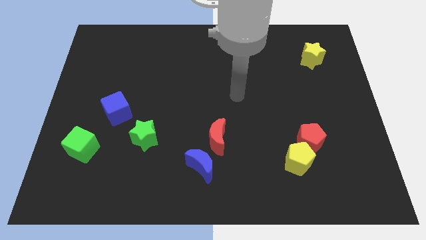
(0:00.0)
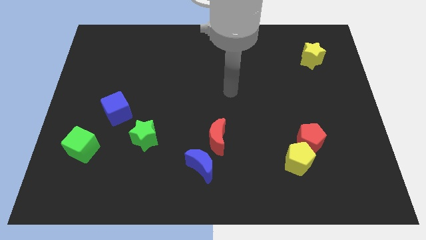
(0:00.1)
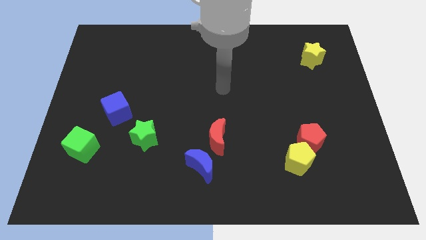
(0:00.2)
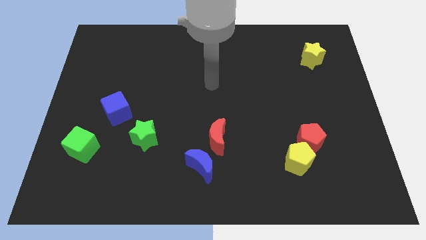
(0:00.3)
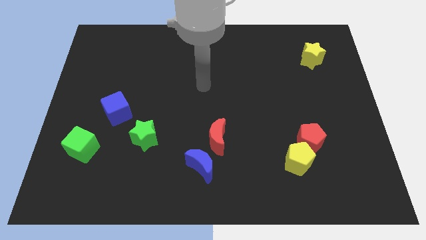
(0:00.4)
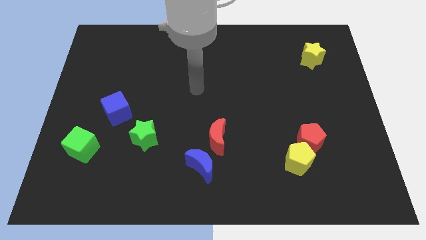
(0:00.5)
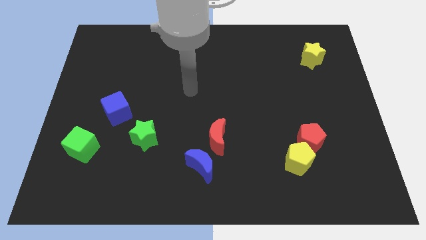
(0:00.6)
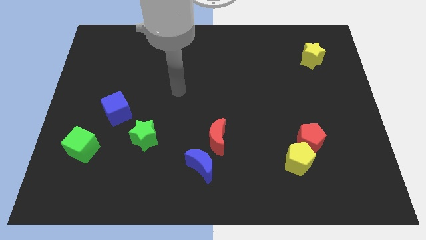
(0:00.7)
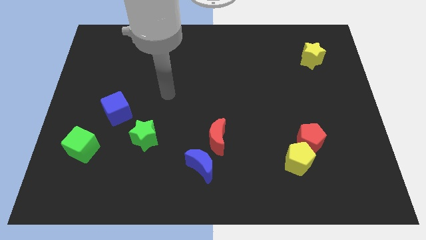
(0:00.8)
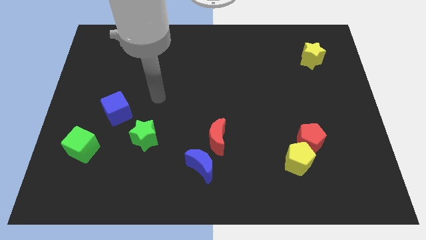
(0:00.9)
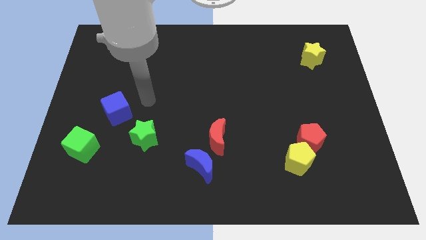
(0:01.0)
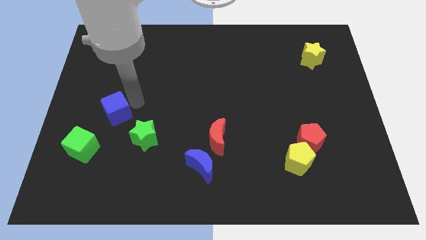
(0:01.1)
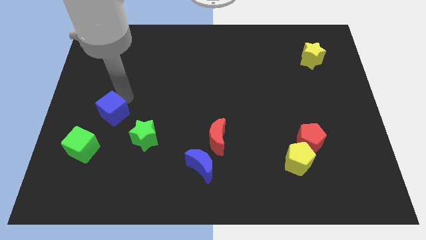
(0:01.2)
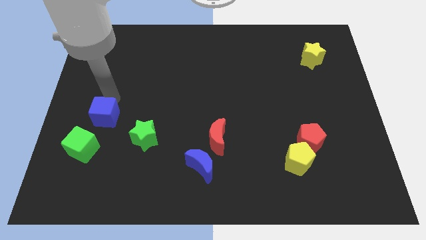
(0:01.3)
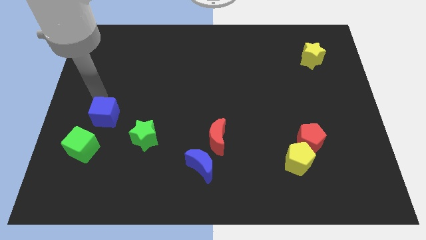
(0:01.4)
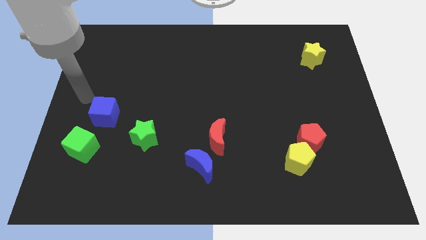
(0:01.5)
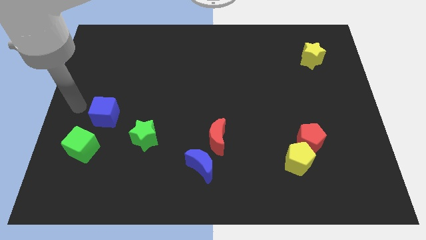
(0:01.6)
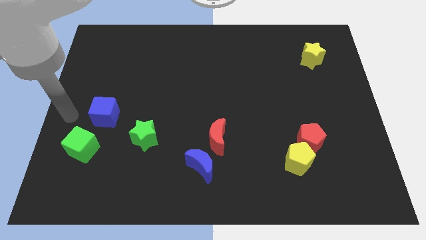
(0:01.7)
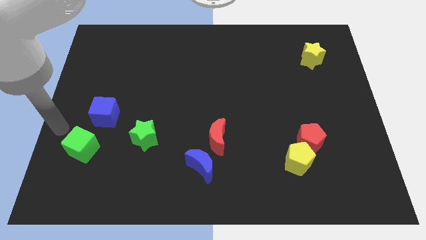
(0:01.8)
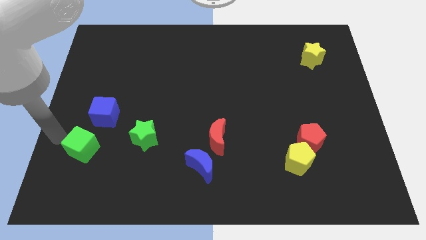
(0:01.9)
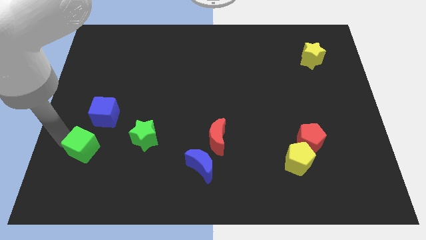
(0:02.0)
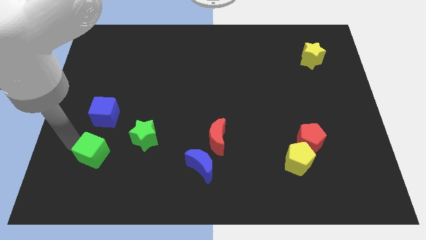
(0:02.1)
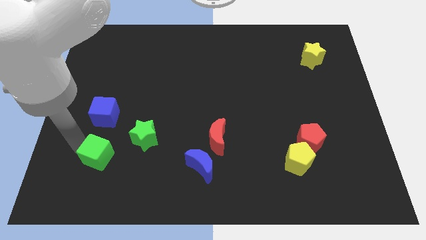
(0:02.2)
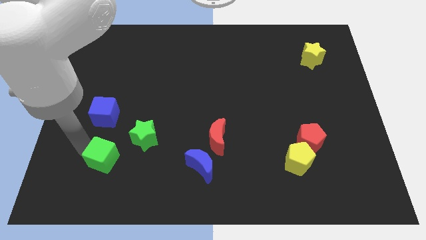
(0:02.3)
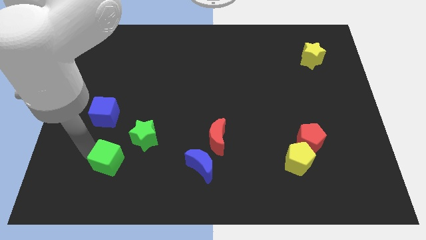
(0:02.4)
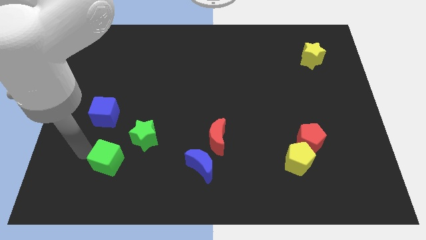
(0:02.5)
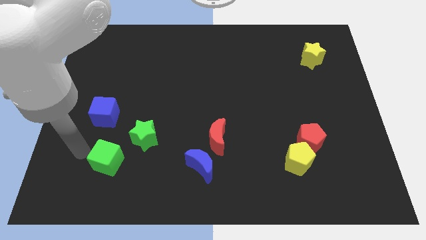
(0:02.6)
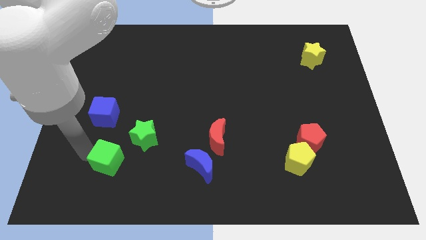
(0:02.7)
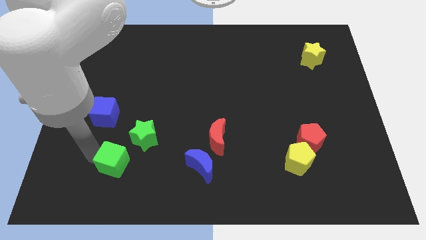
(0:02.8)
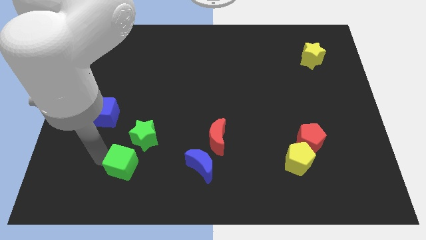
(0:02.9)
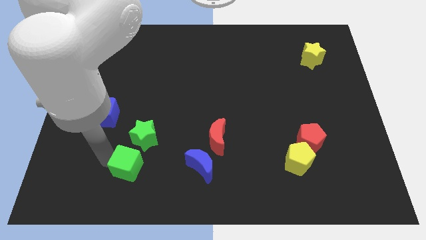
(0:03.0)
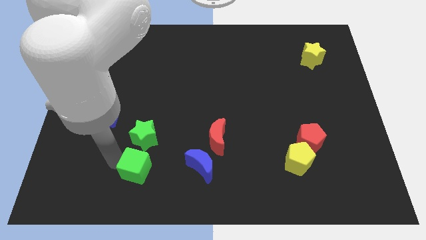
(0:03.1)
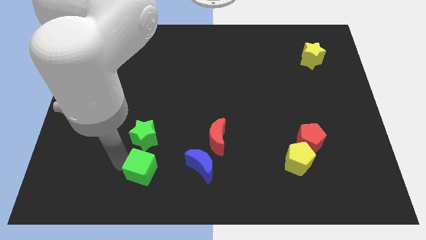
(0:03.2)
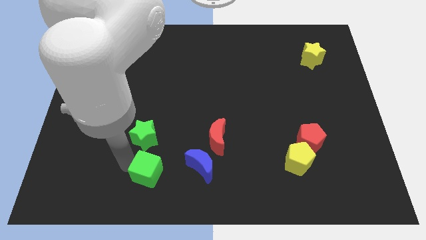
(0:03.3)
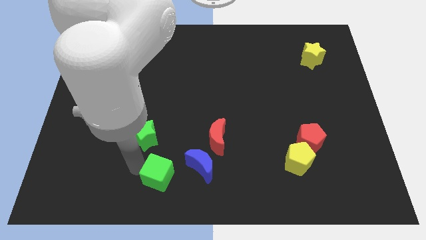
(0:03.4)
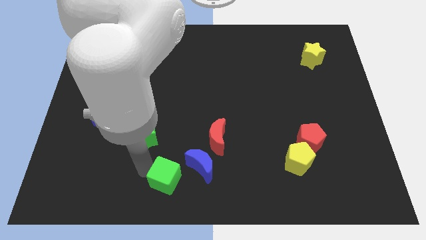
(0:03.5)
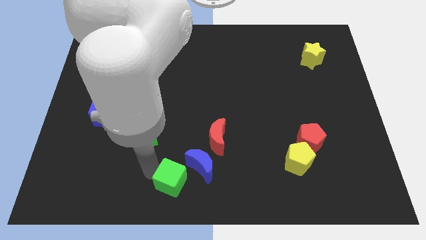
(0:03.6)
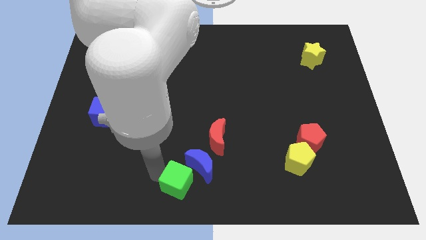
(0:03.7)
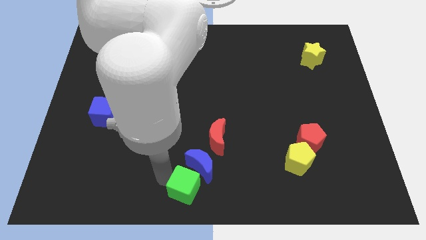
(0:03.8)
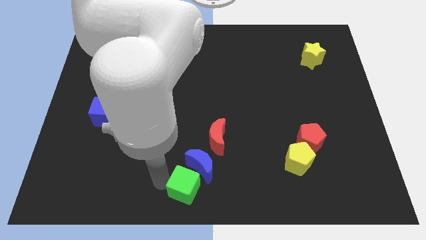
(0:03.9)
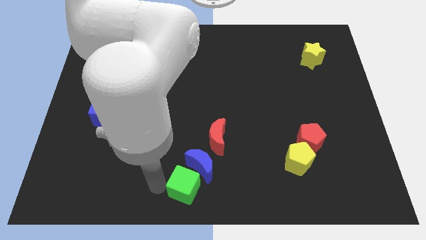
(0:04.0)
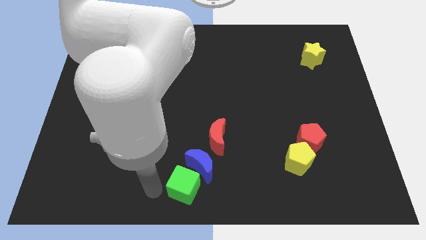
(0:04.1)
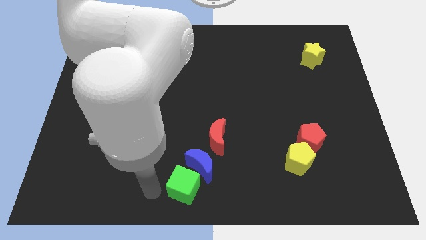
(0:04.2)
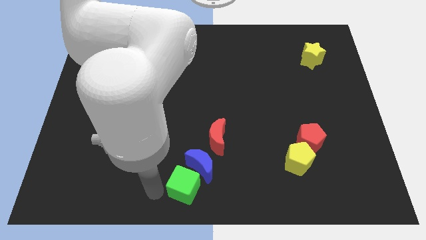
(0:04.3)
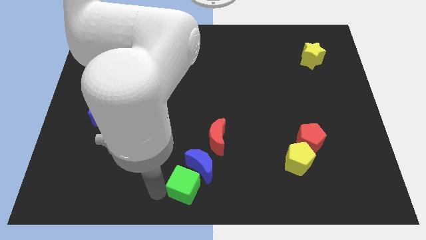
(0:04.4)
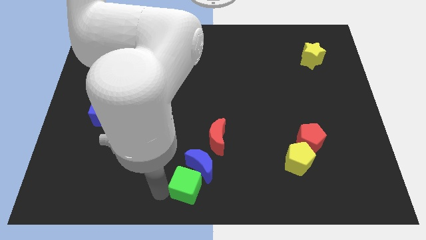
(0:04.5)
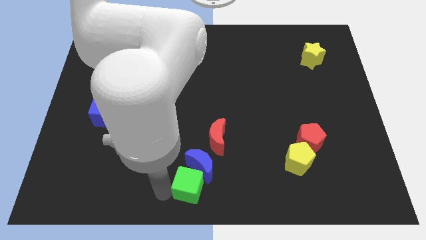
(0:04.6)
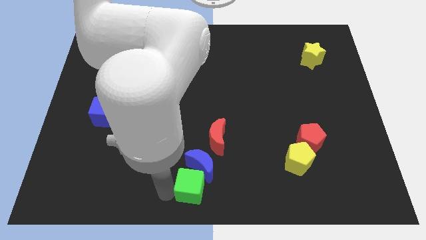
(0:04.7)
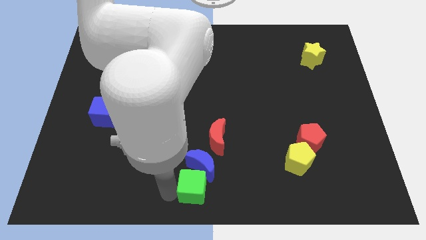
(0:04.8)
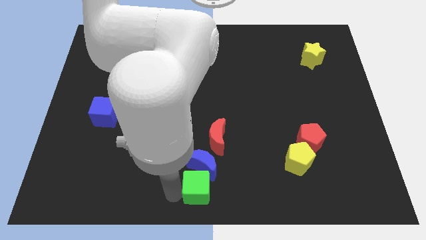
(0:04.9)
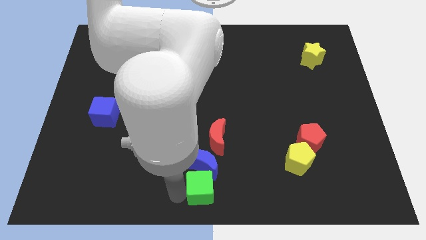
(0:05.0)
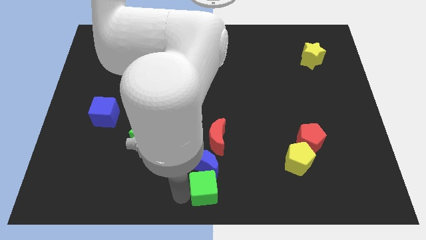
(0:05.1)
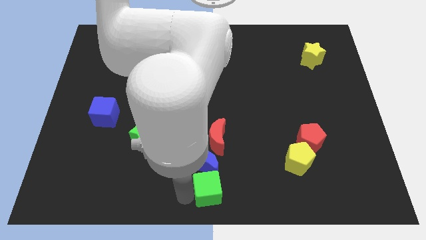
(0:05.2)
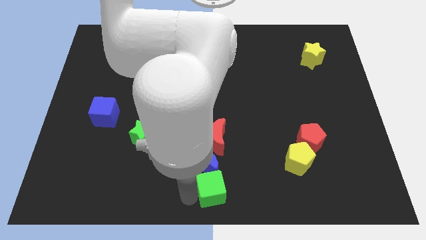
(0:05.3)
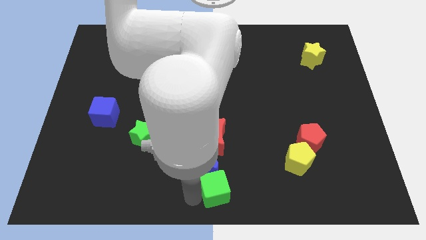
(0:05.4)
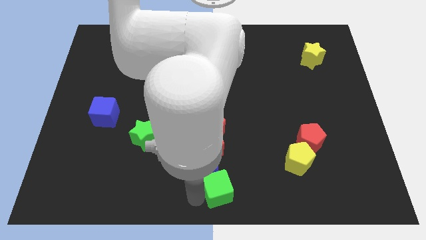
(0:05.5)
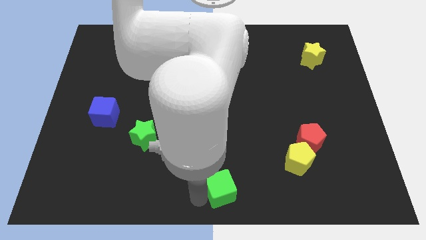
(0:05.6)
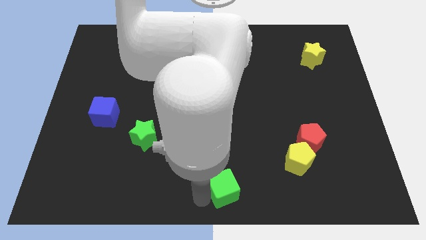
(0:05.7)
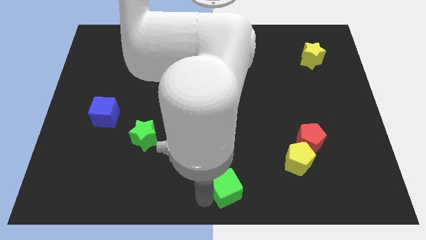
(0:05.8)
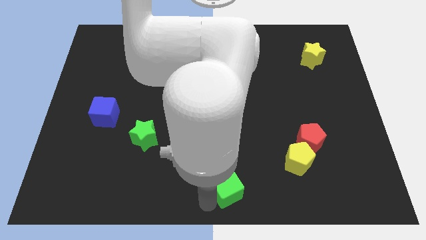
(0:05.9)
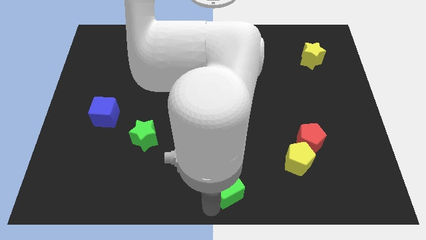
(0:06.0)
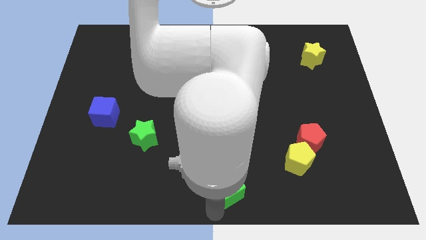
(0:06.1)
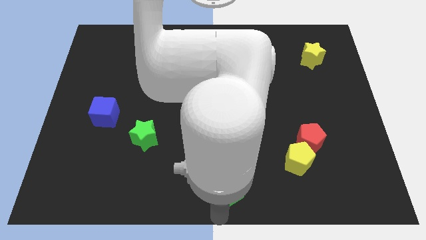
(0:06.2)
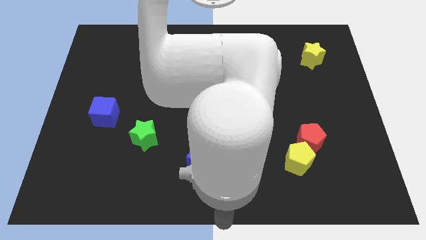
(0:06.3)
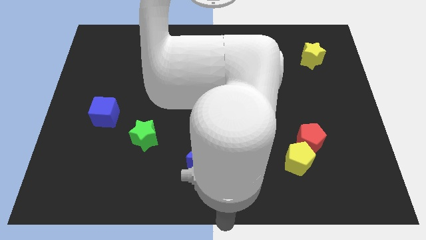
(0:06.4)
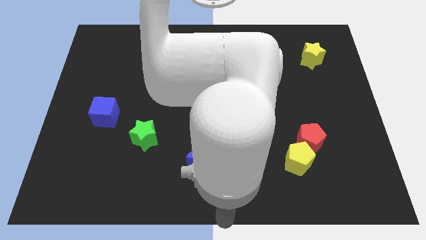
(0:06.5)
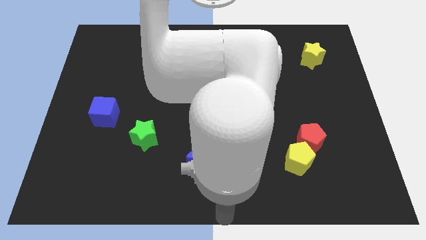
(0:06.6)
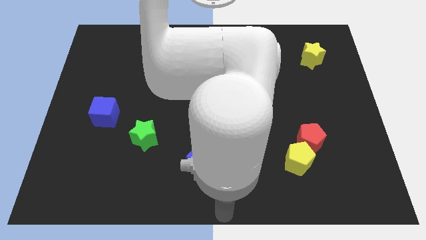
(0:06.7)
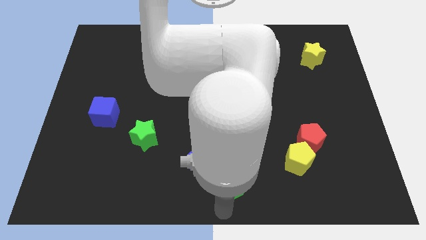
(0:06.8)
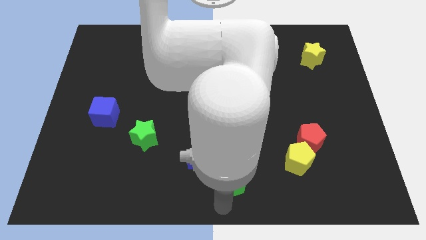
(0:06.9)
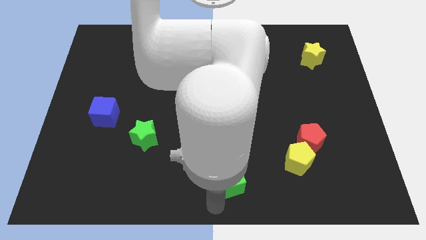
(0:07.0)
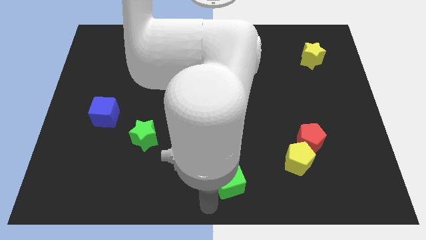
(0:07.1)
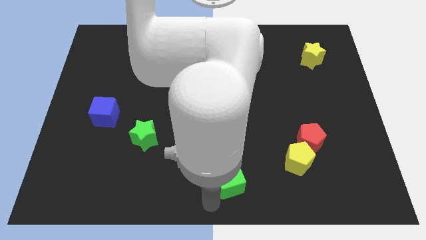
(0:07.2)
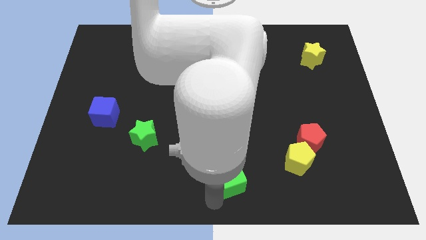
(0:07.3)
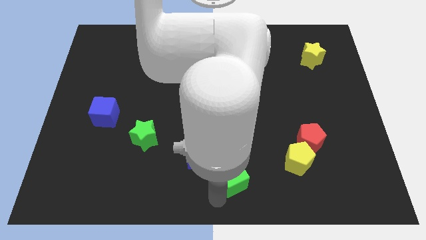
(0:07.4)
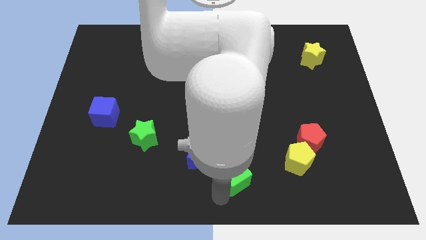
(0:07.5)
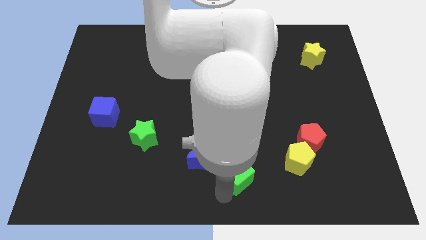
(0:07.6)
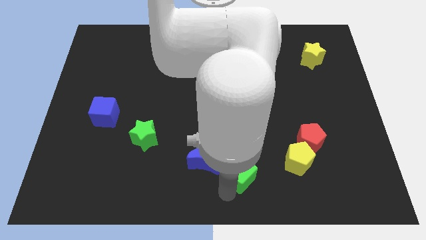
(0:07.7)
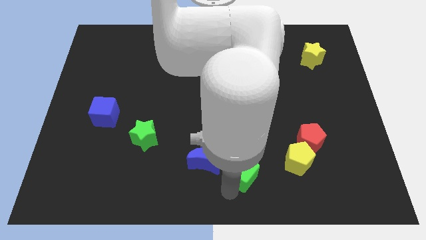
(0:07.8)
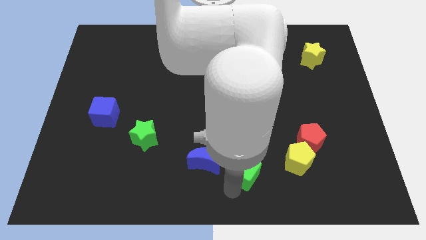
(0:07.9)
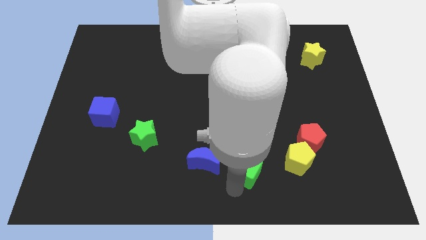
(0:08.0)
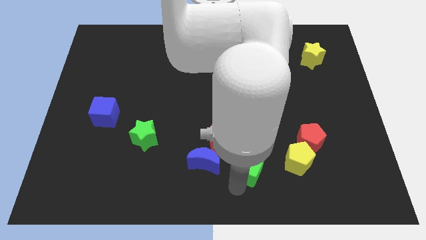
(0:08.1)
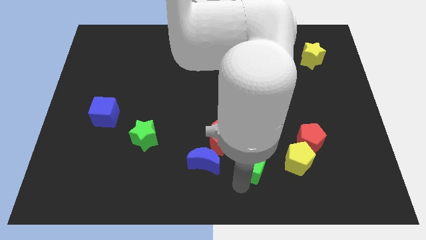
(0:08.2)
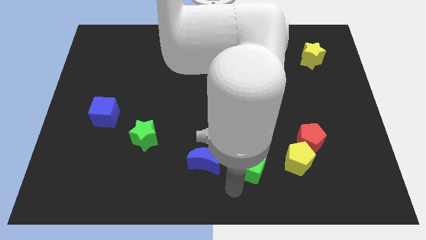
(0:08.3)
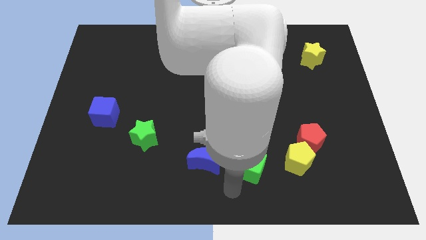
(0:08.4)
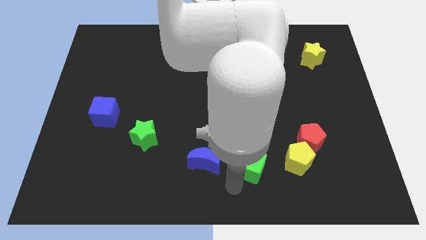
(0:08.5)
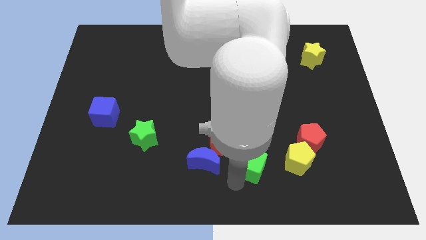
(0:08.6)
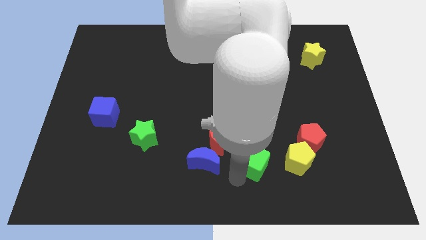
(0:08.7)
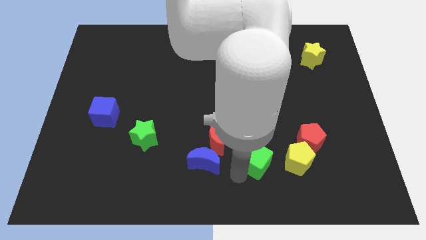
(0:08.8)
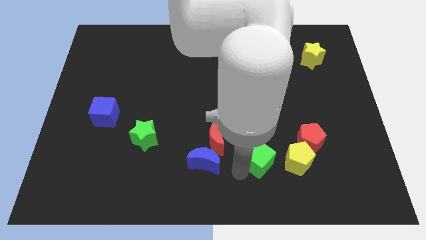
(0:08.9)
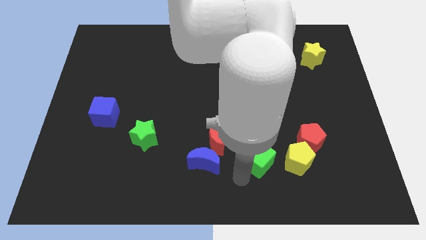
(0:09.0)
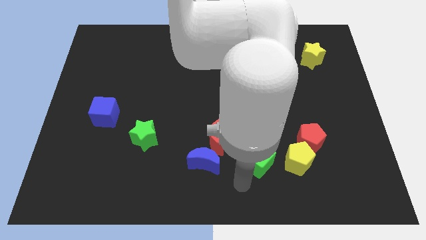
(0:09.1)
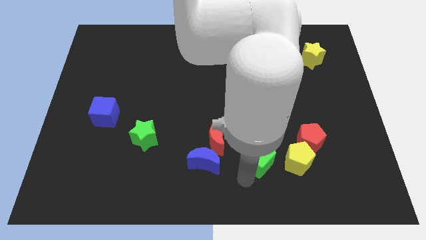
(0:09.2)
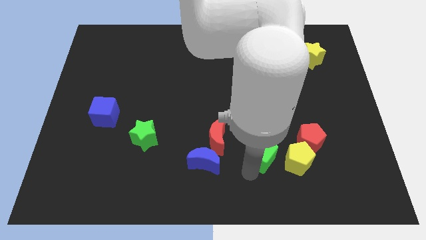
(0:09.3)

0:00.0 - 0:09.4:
put the green cube diagonally up and to the left of the yellow pentagon
